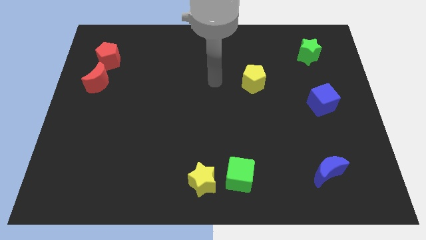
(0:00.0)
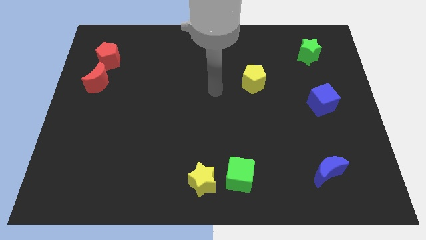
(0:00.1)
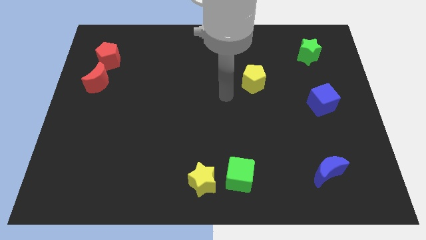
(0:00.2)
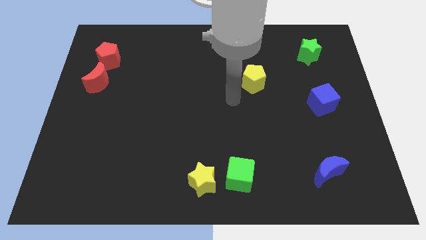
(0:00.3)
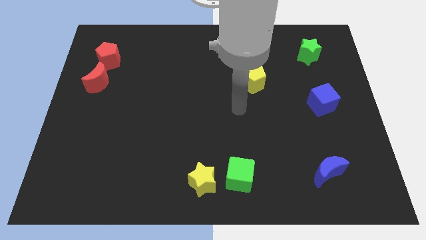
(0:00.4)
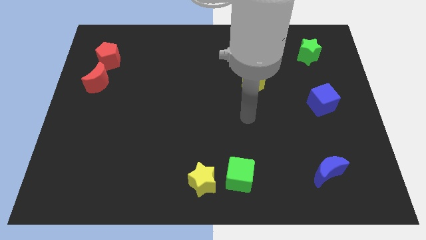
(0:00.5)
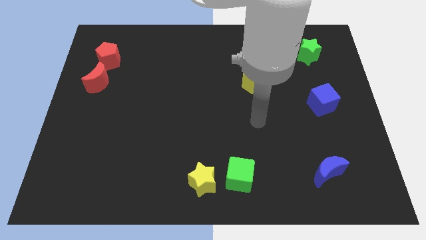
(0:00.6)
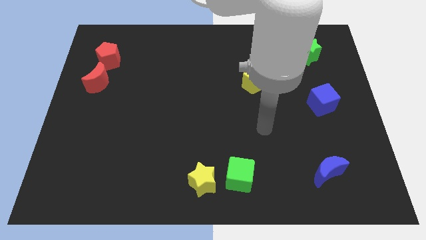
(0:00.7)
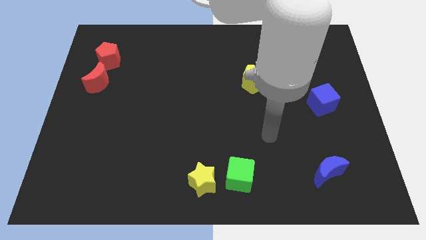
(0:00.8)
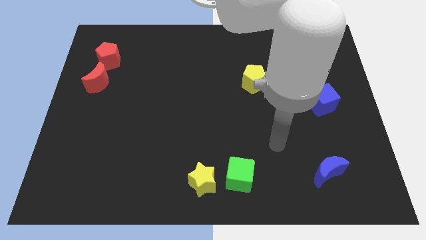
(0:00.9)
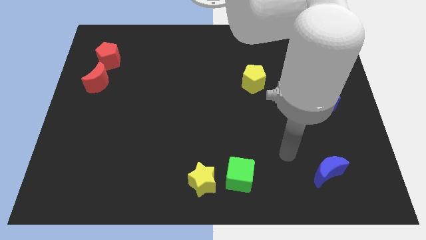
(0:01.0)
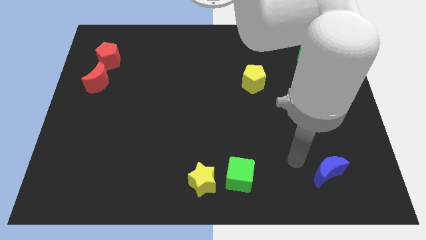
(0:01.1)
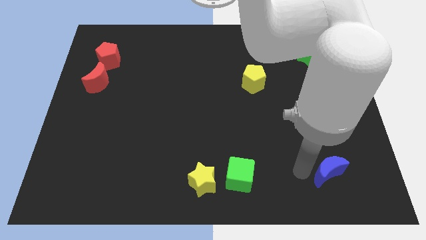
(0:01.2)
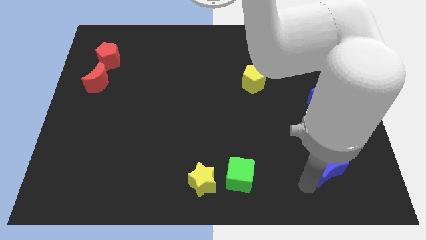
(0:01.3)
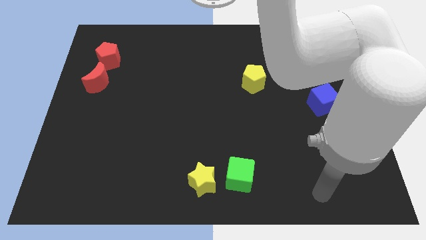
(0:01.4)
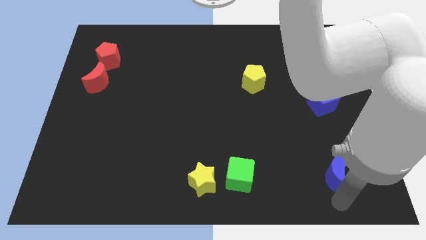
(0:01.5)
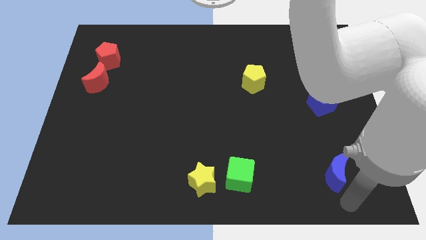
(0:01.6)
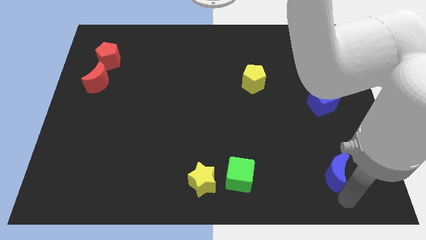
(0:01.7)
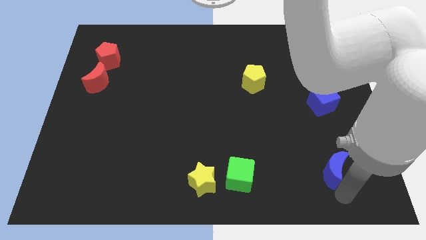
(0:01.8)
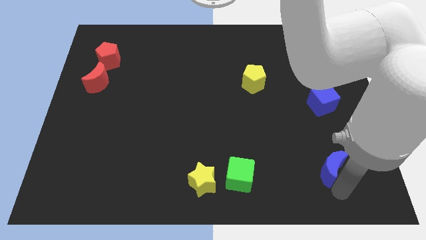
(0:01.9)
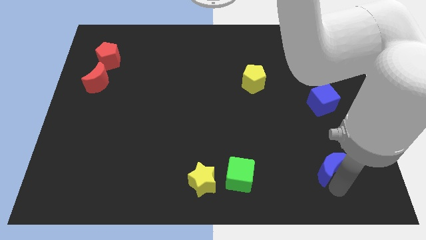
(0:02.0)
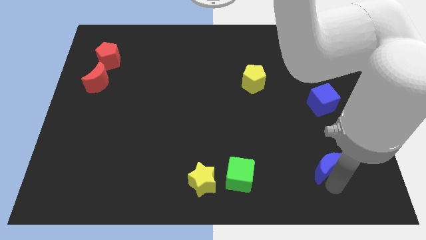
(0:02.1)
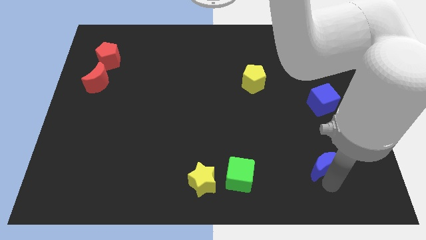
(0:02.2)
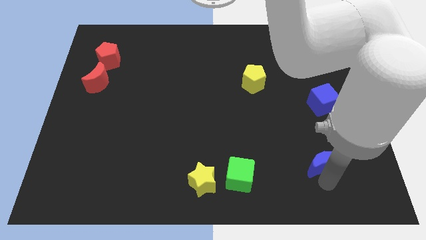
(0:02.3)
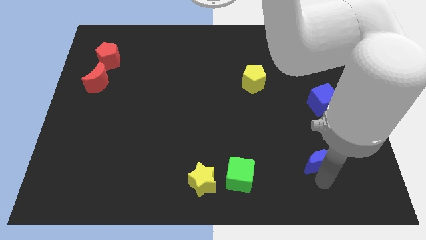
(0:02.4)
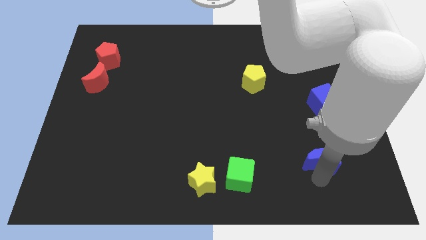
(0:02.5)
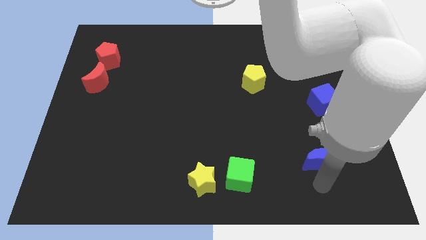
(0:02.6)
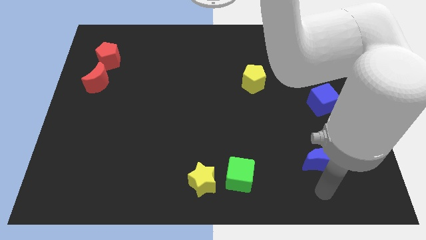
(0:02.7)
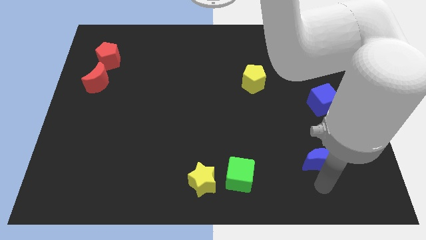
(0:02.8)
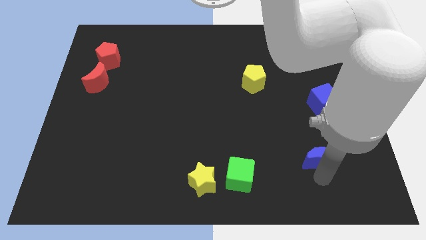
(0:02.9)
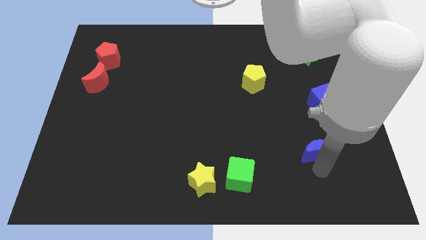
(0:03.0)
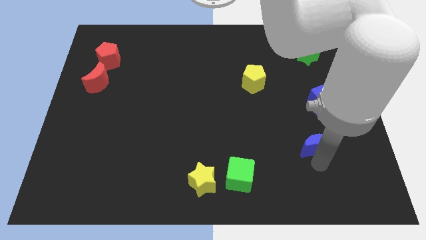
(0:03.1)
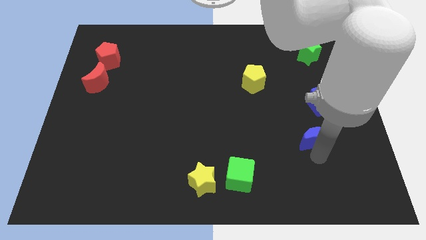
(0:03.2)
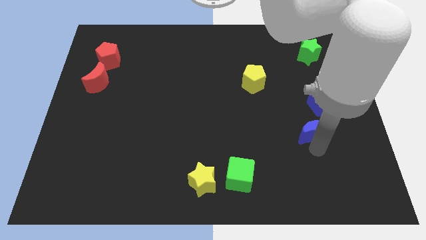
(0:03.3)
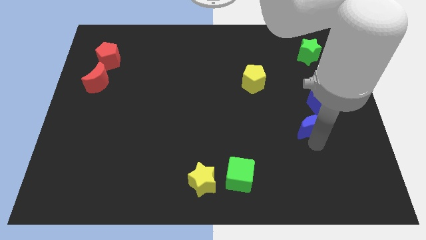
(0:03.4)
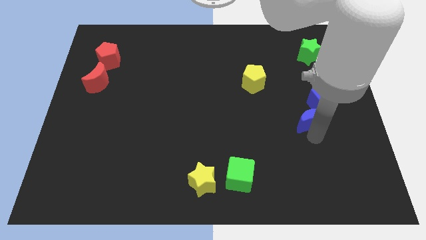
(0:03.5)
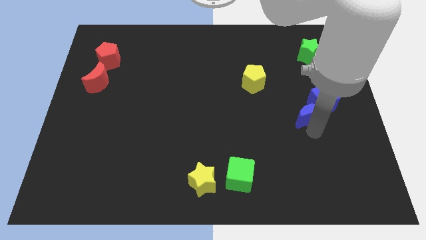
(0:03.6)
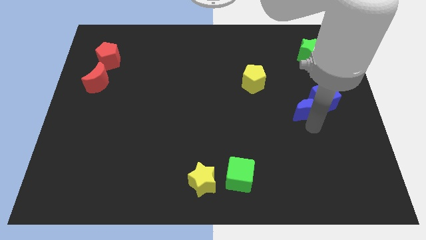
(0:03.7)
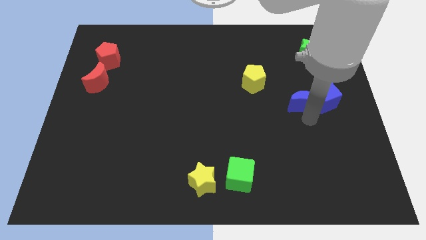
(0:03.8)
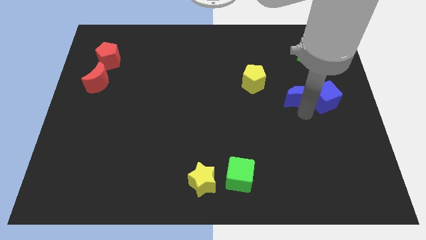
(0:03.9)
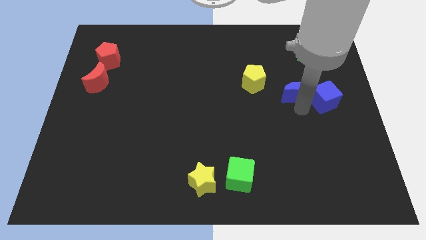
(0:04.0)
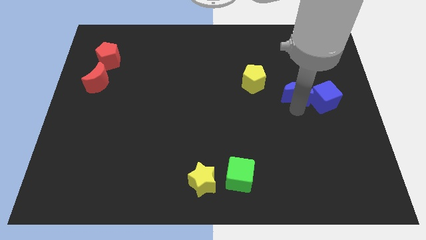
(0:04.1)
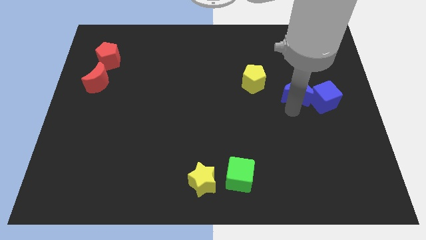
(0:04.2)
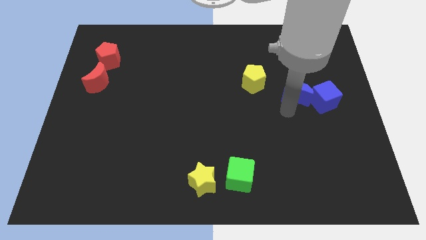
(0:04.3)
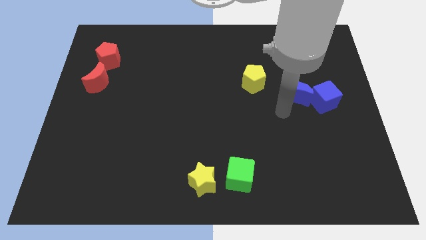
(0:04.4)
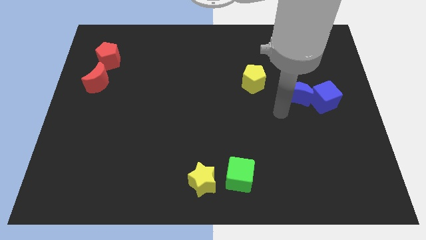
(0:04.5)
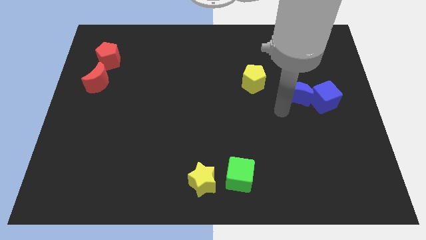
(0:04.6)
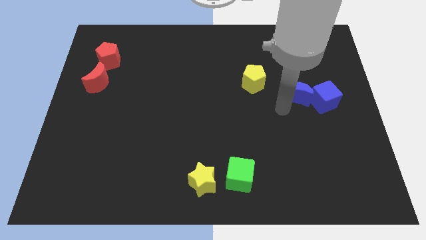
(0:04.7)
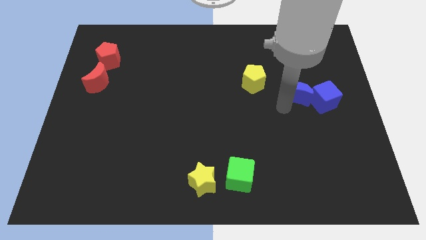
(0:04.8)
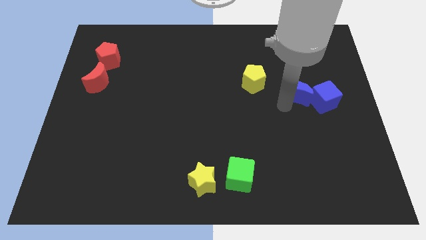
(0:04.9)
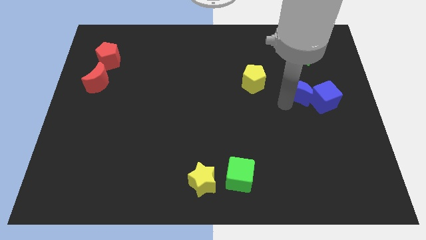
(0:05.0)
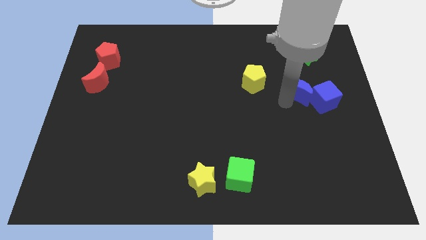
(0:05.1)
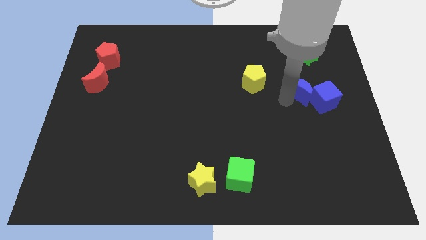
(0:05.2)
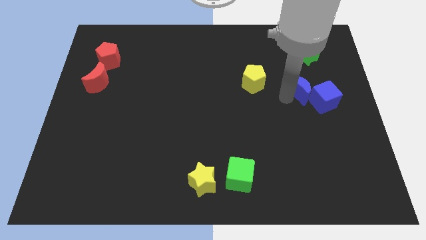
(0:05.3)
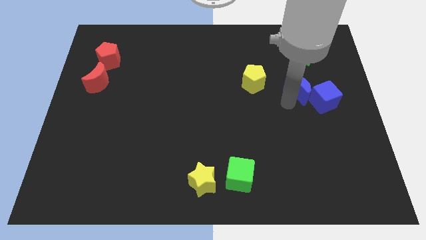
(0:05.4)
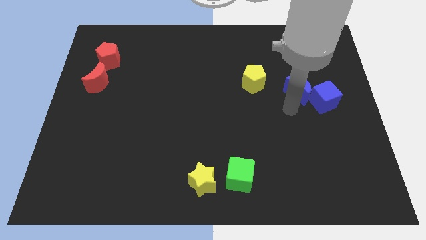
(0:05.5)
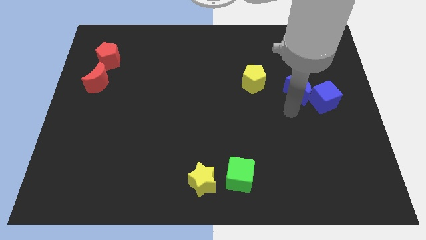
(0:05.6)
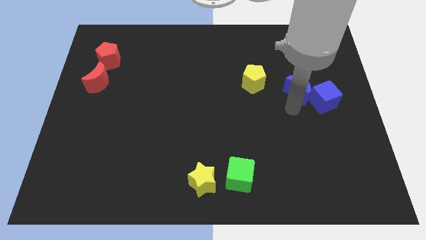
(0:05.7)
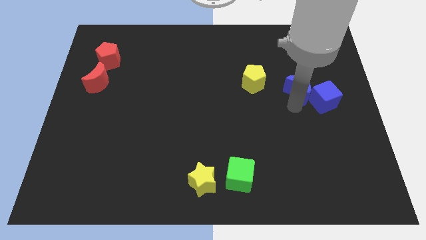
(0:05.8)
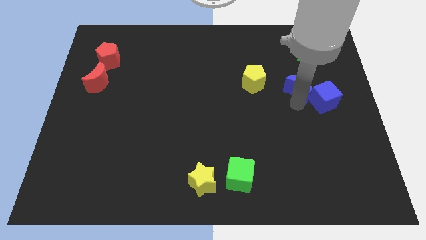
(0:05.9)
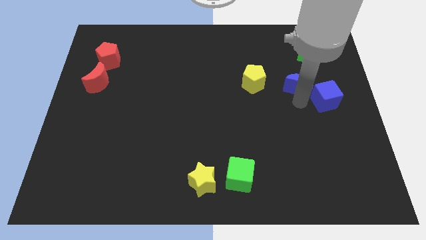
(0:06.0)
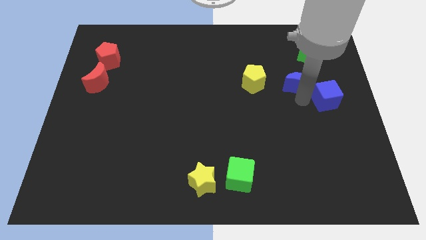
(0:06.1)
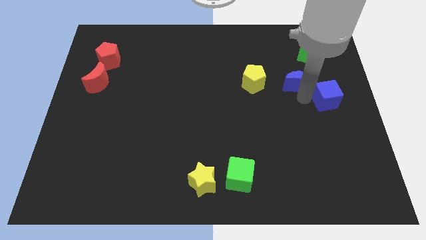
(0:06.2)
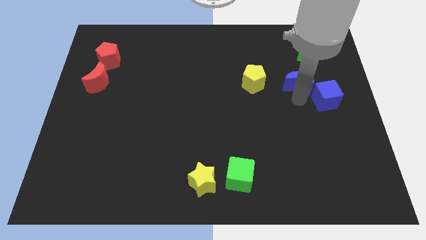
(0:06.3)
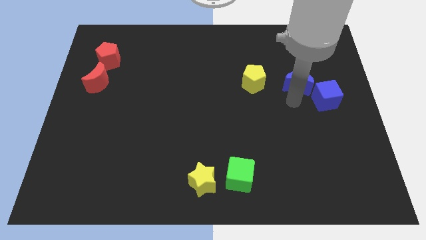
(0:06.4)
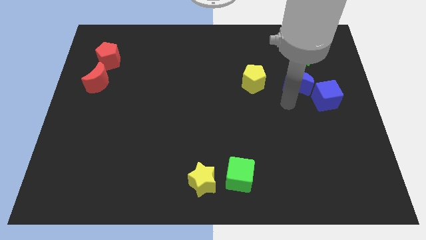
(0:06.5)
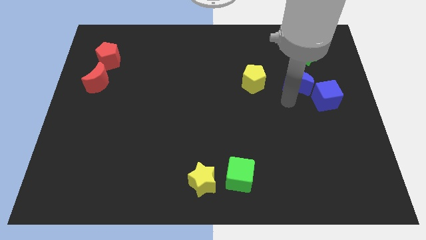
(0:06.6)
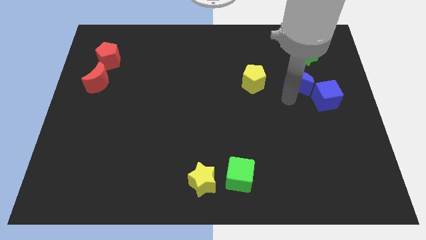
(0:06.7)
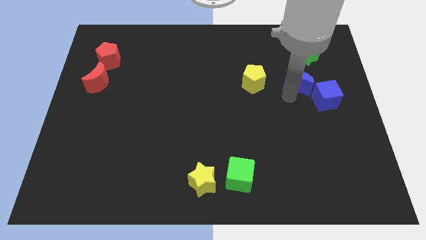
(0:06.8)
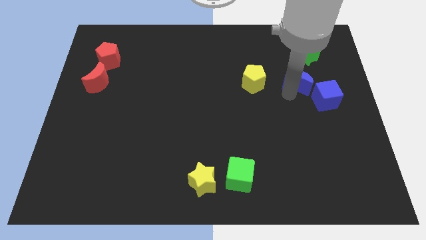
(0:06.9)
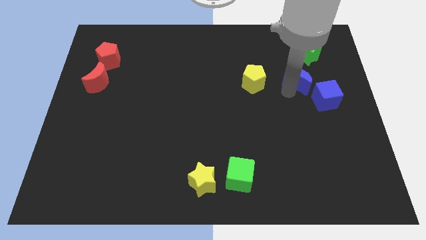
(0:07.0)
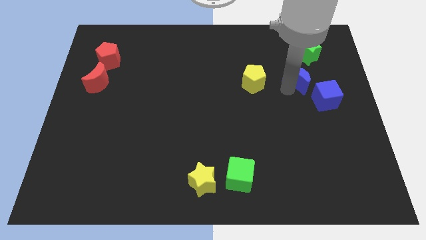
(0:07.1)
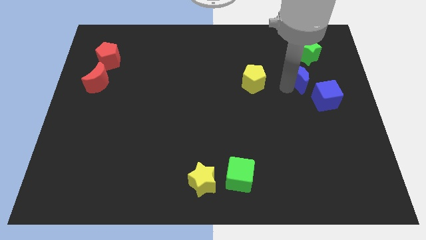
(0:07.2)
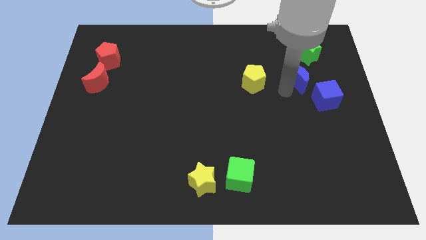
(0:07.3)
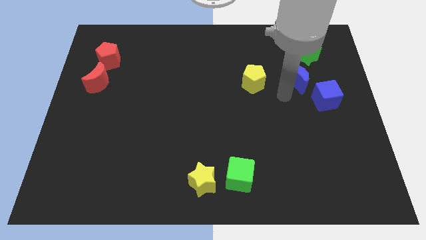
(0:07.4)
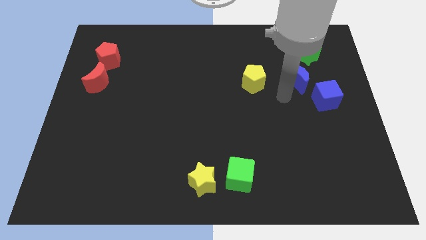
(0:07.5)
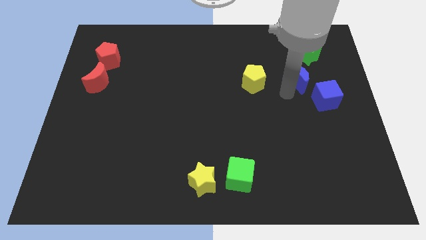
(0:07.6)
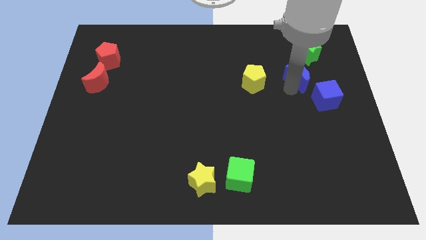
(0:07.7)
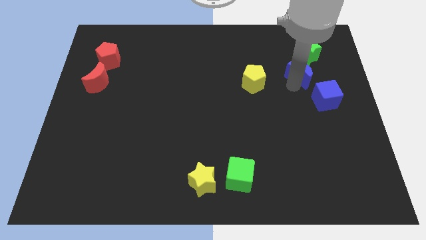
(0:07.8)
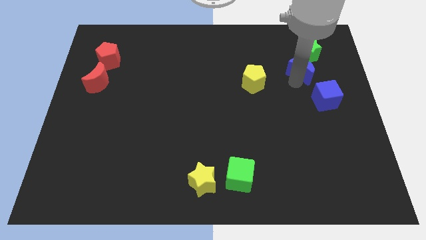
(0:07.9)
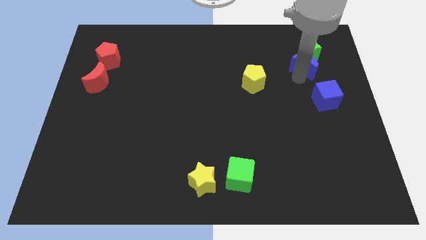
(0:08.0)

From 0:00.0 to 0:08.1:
put the blue moon to the green star
